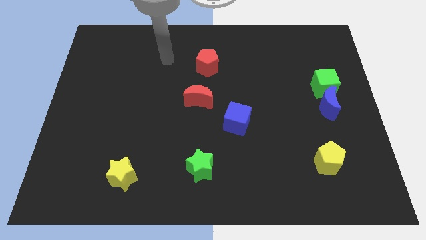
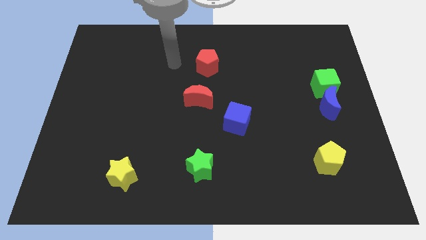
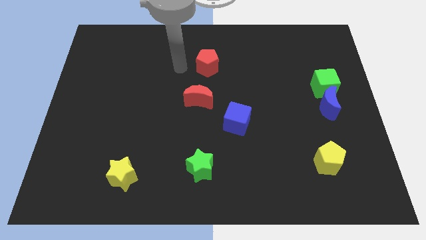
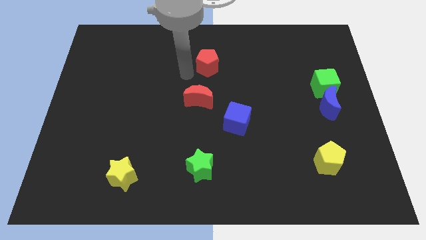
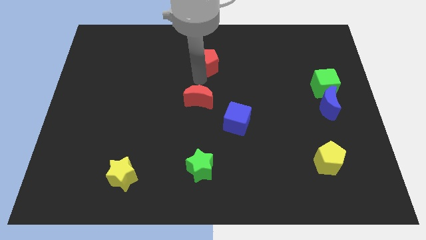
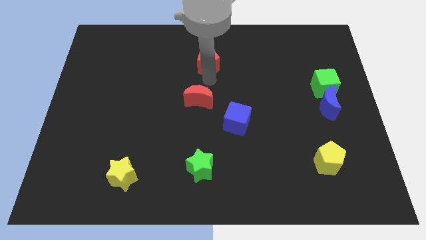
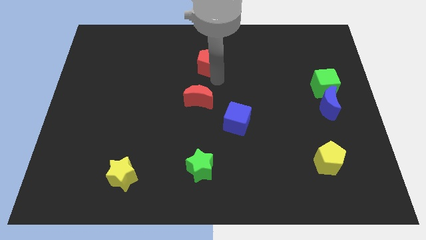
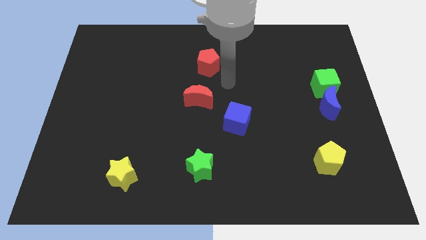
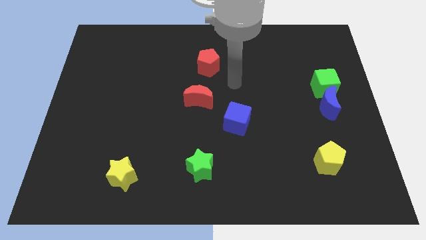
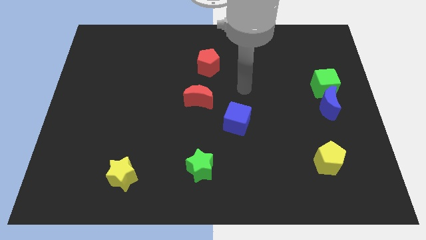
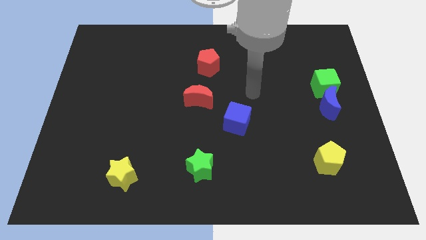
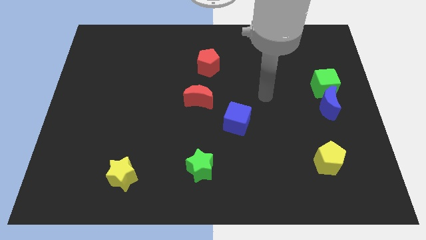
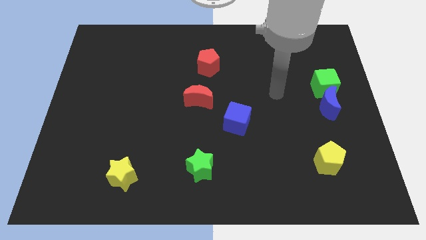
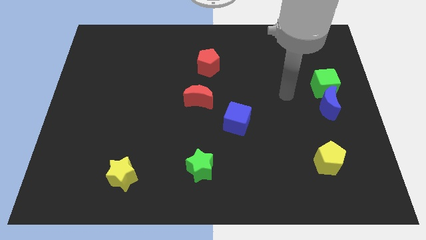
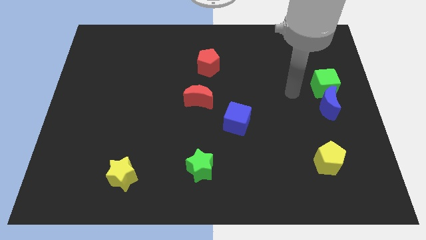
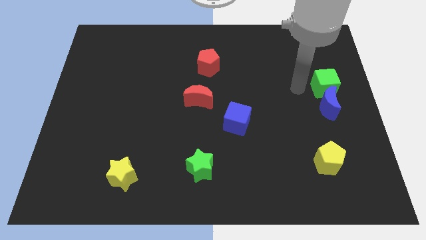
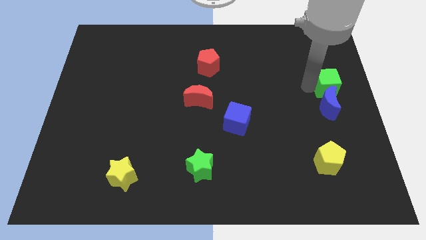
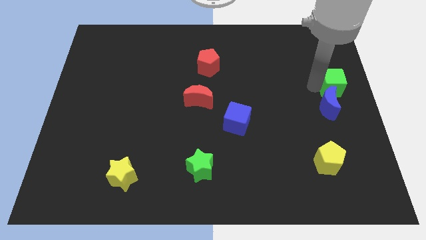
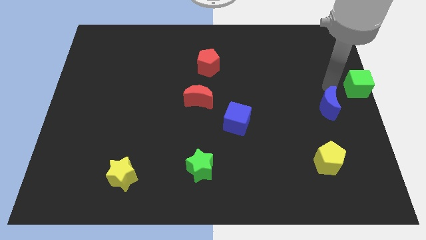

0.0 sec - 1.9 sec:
separate the blue moon from the green cube

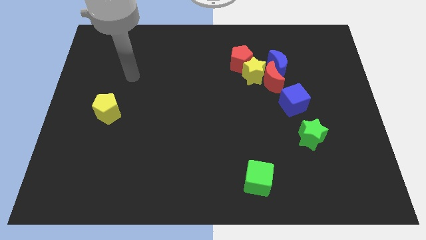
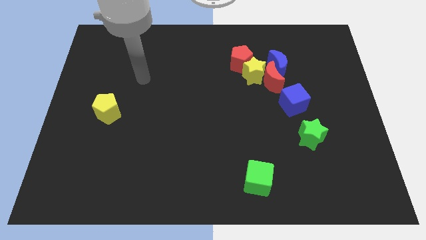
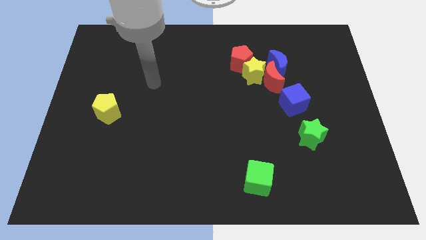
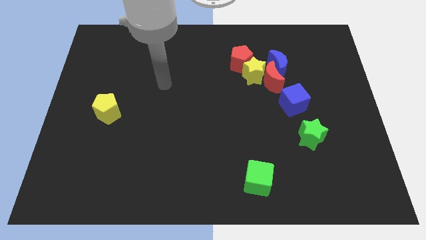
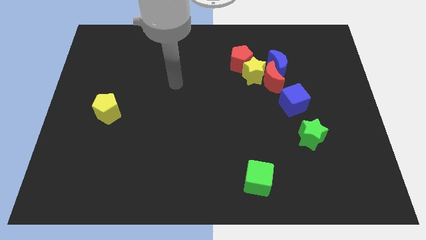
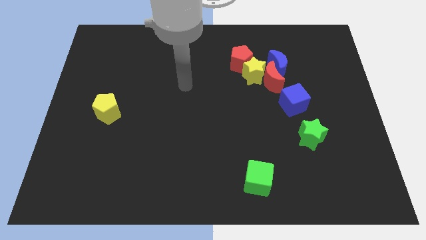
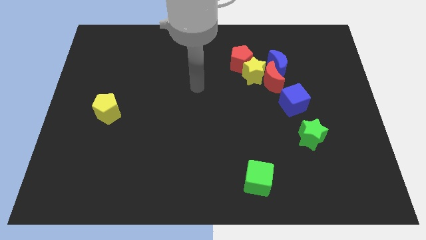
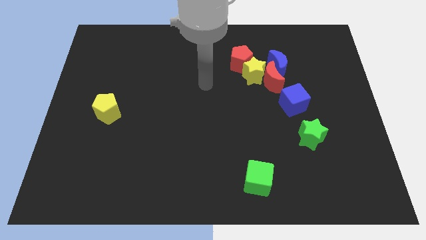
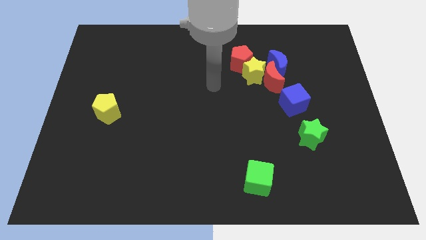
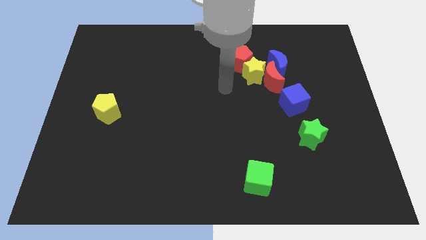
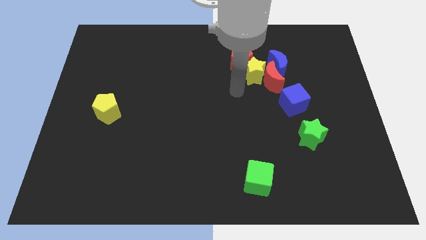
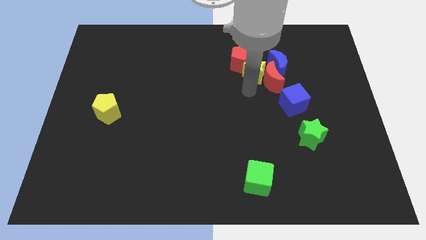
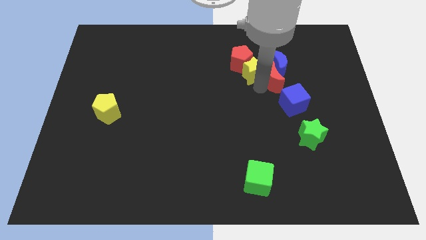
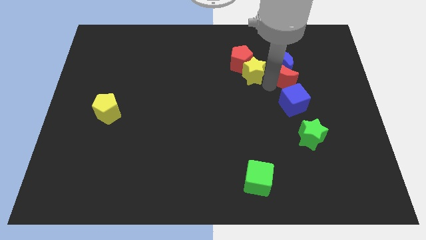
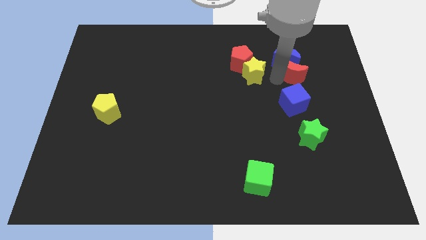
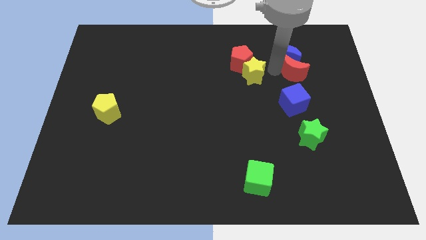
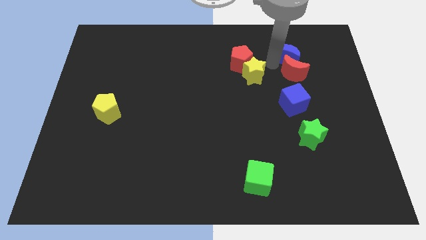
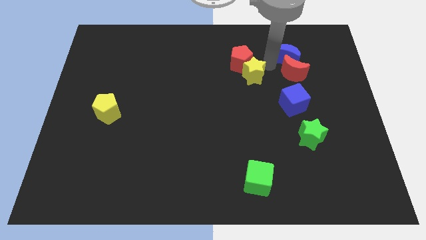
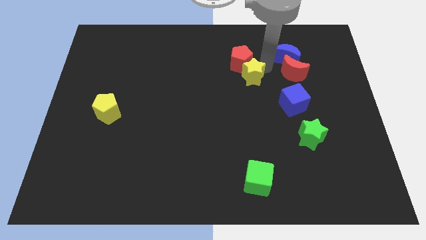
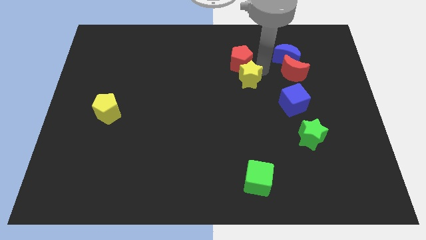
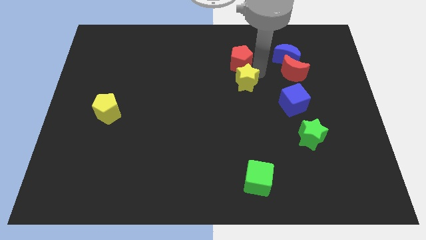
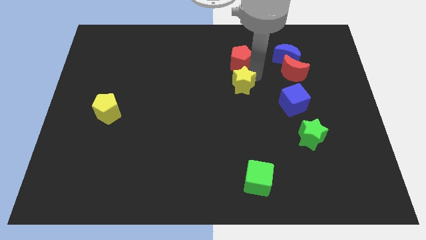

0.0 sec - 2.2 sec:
pull the yellow star apart from the group of blocks

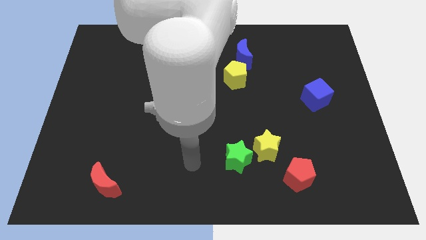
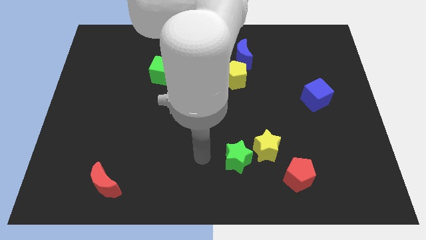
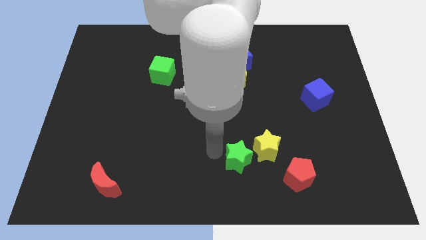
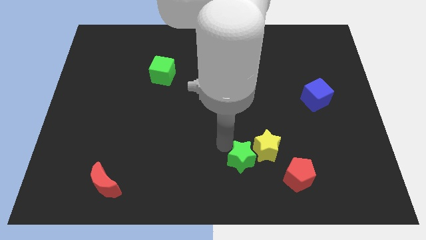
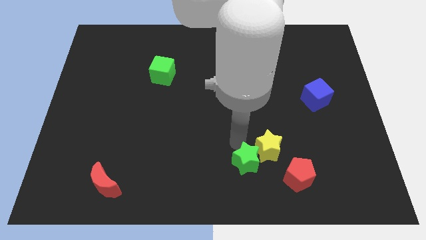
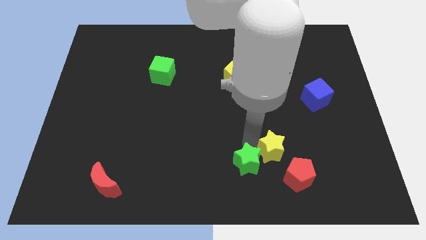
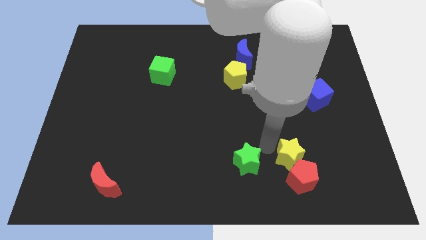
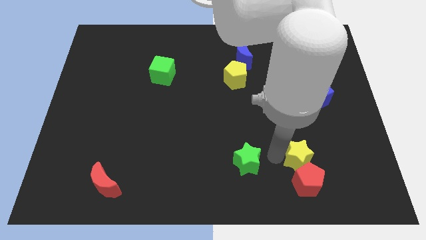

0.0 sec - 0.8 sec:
move the green star away from the yellow star

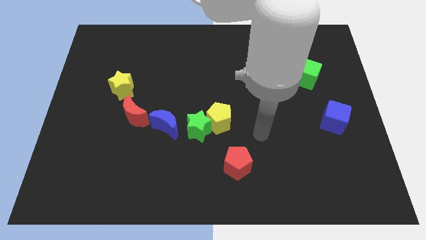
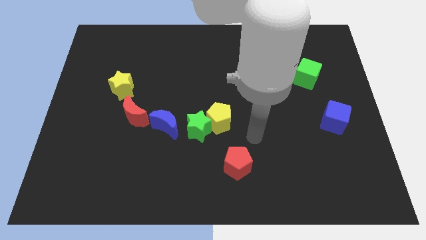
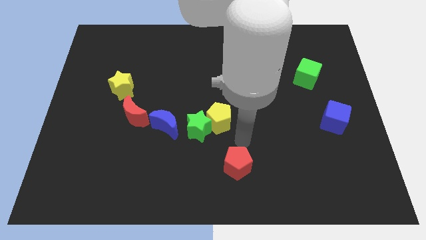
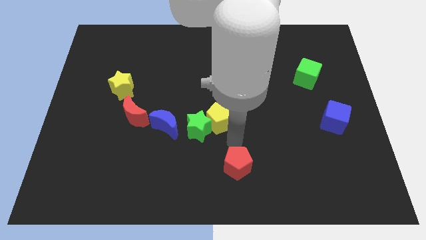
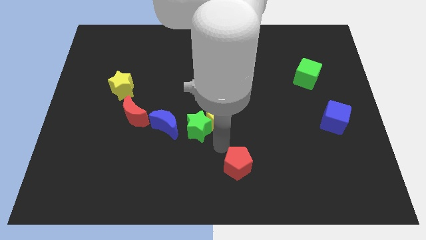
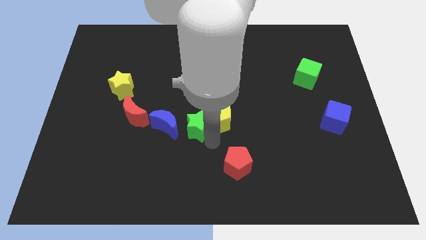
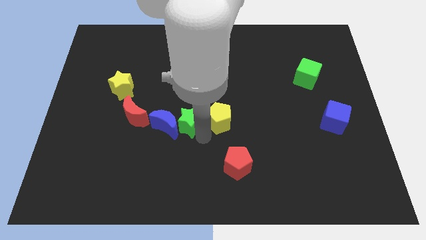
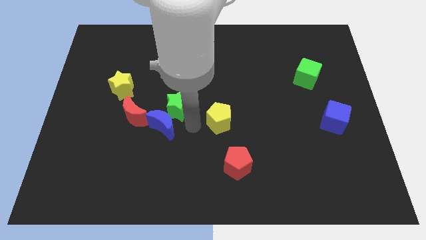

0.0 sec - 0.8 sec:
pull the yellow pentagon apart from the green star

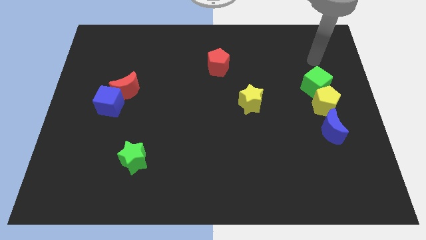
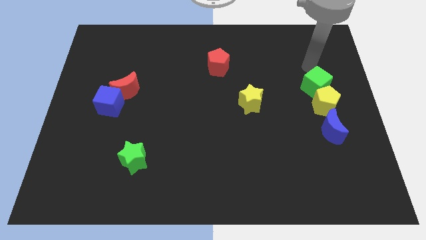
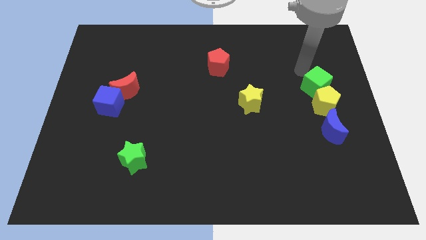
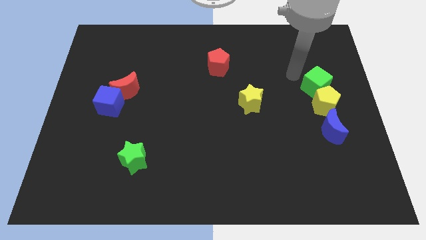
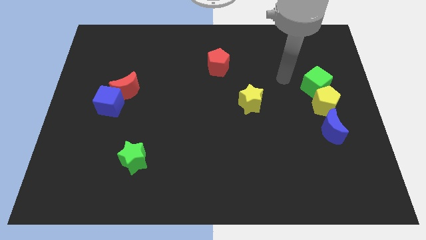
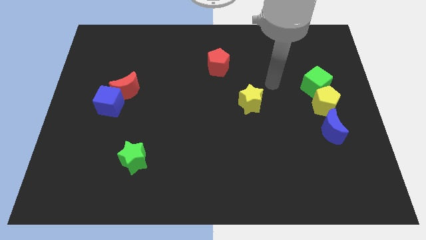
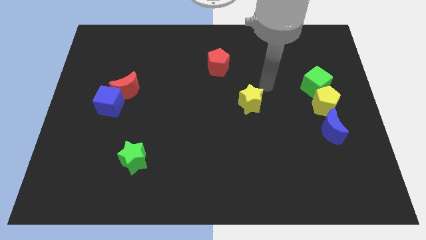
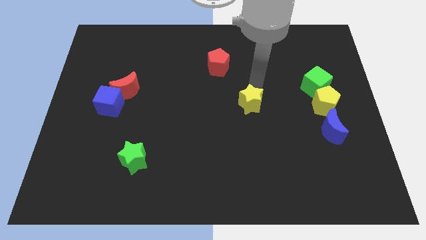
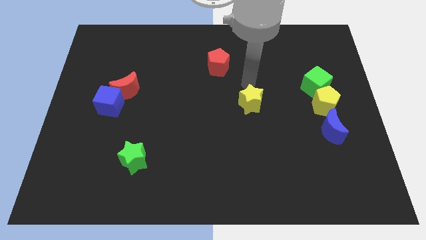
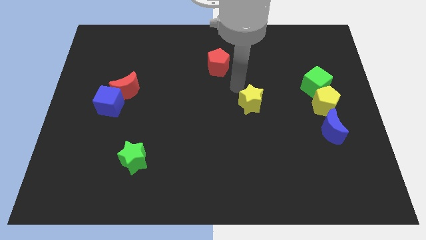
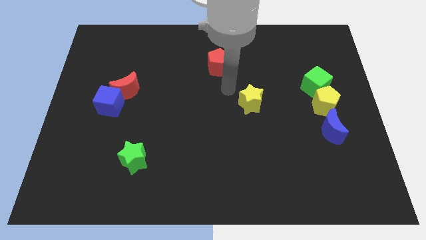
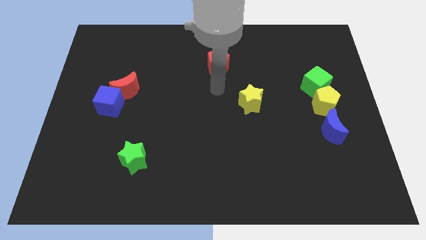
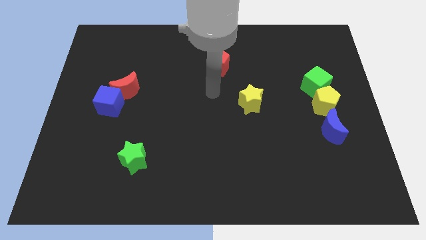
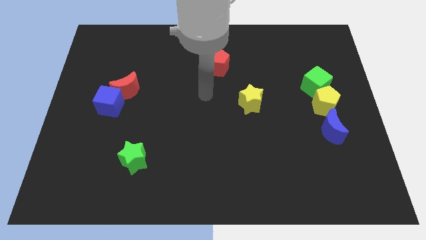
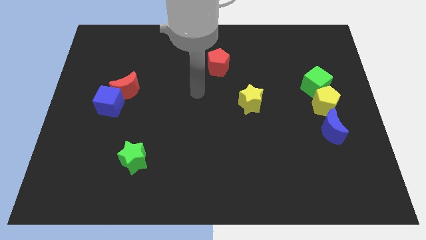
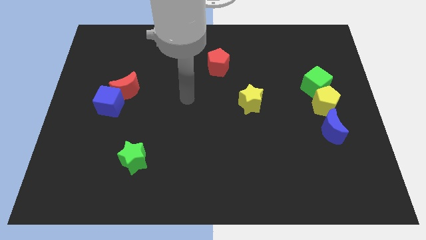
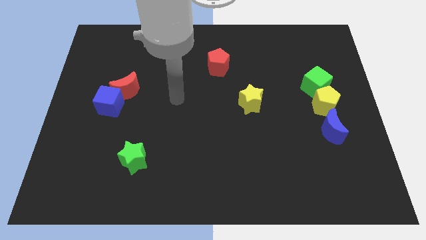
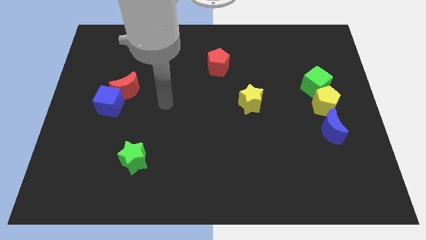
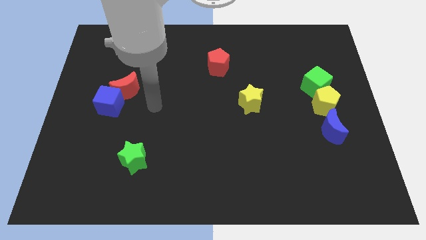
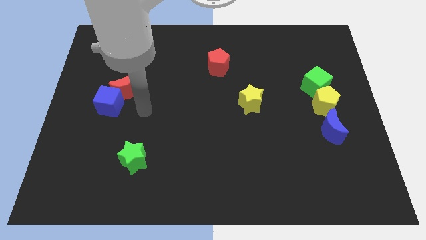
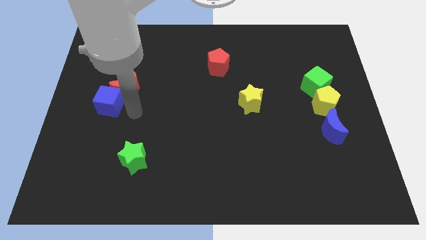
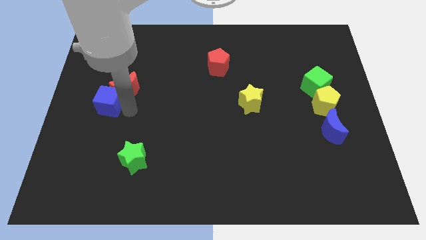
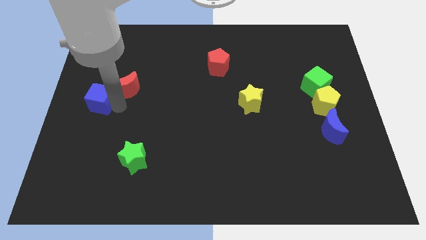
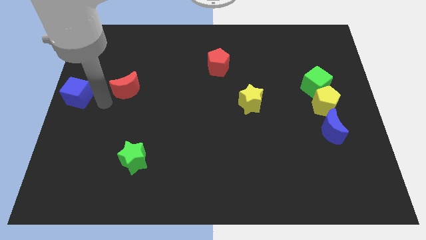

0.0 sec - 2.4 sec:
pull the red moon apart from the blue cube

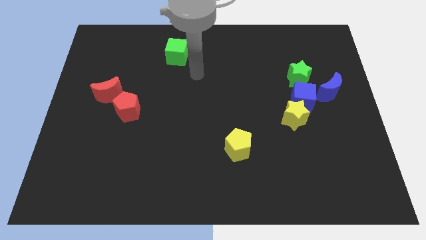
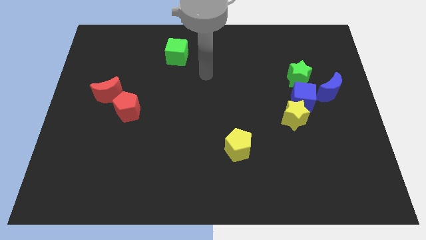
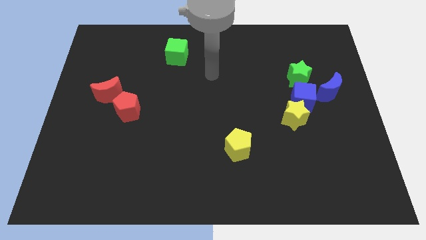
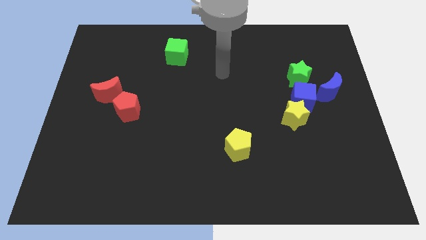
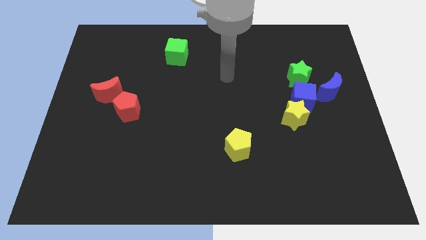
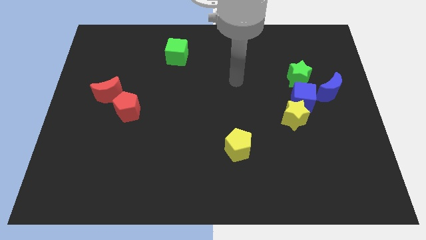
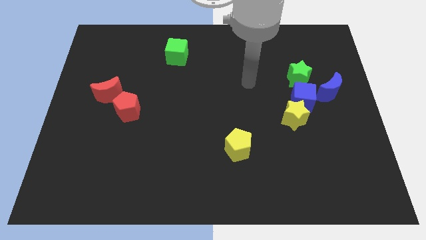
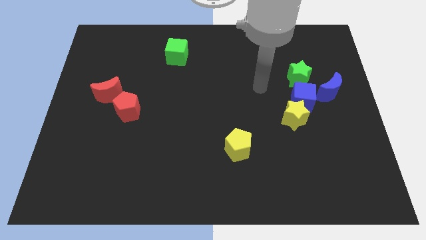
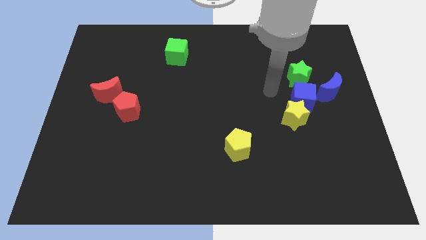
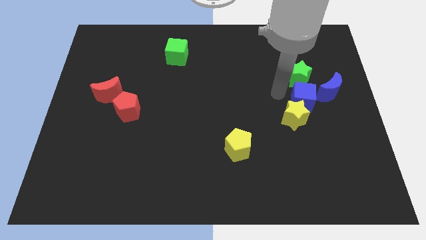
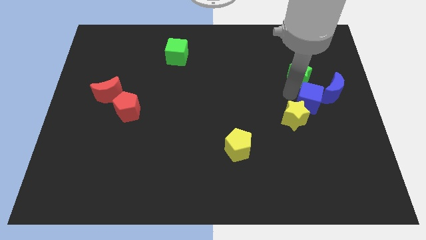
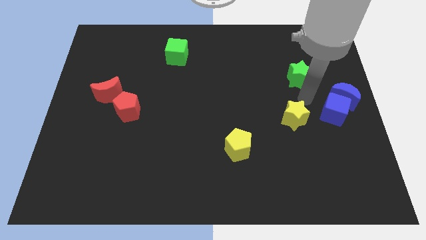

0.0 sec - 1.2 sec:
move the yellow star away from the blue cube
